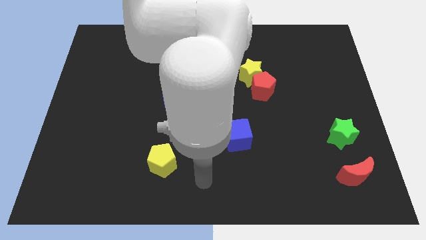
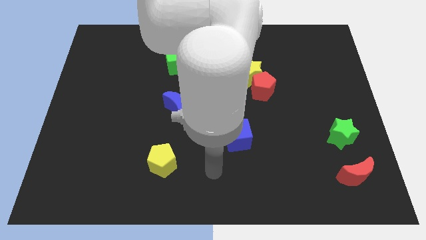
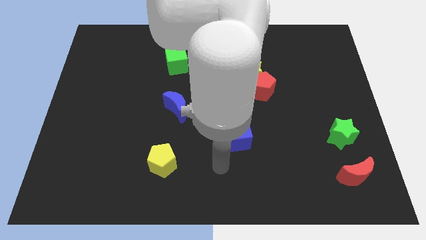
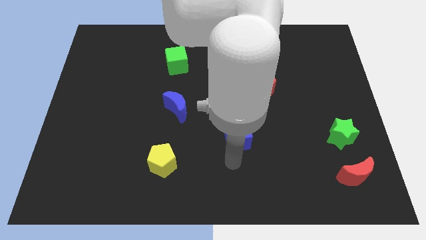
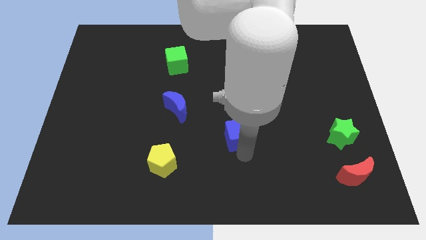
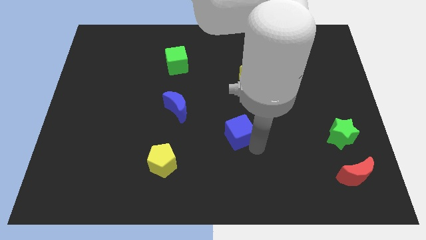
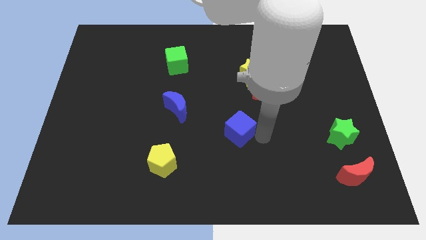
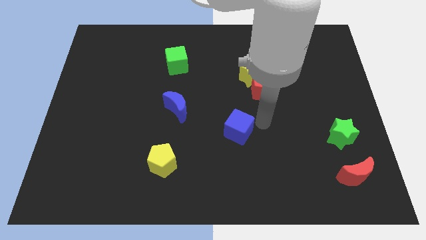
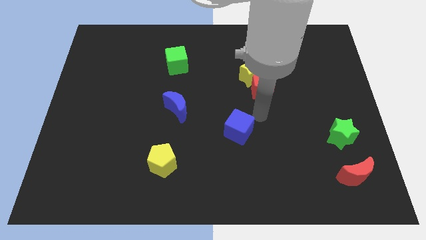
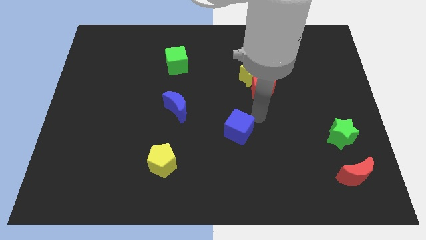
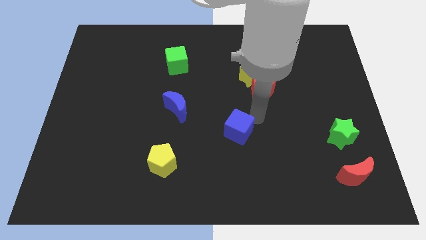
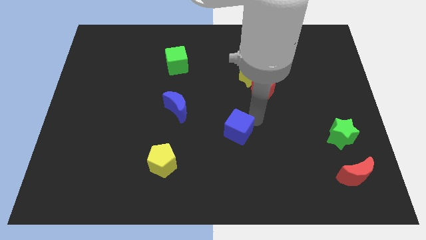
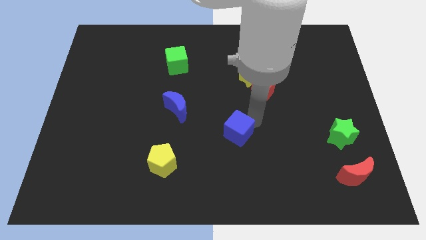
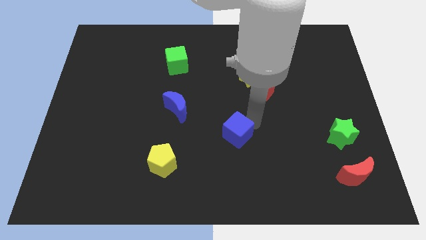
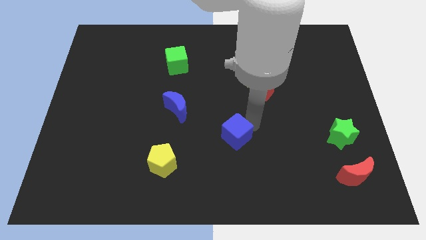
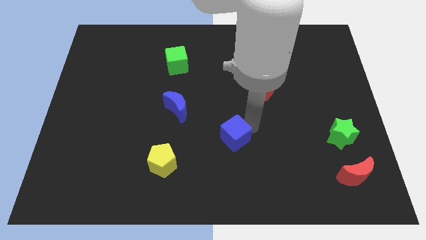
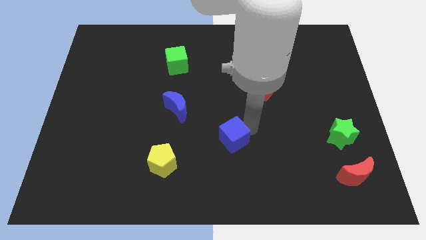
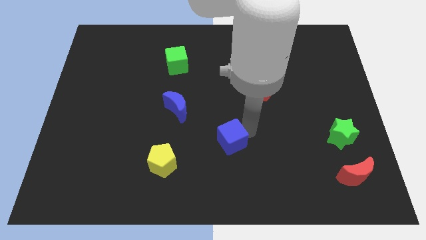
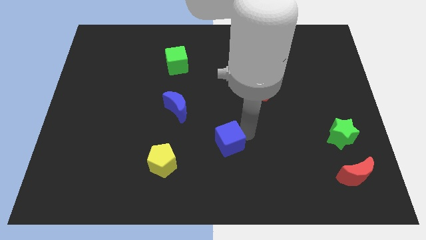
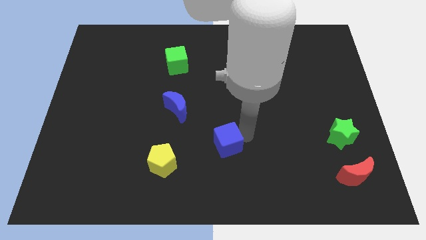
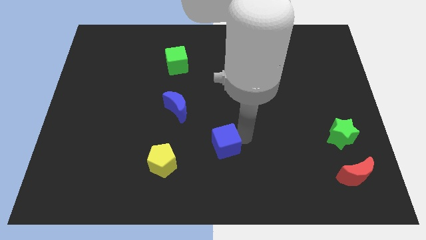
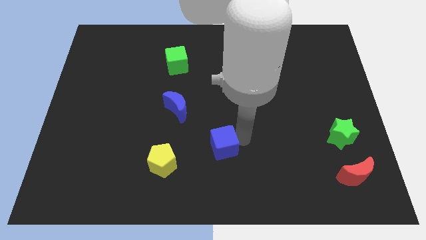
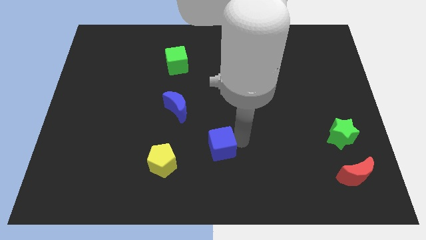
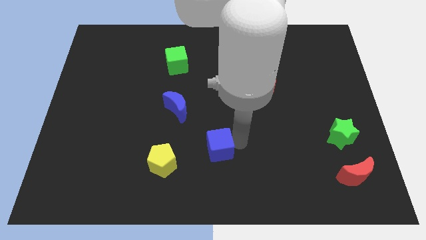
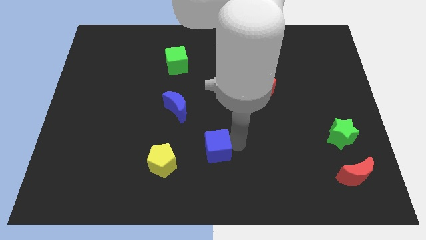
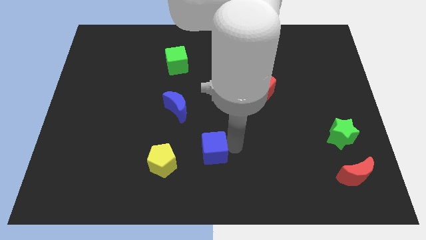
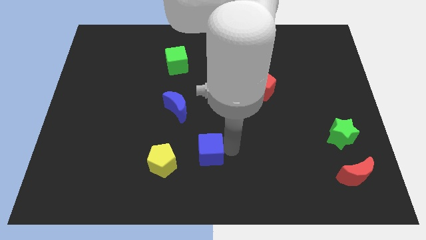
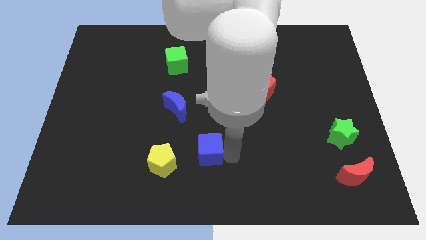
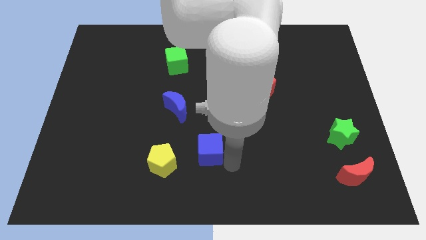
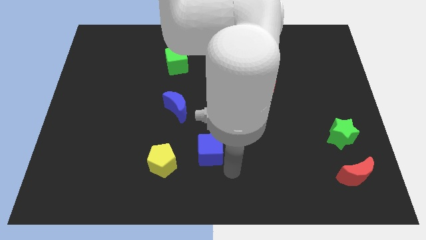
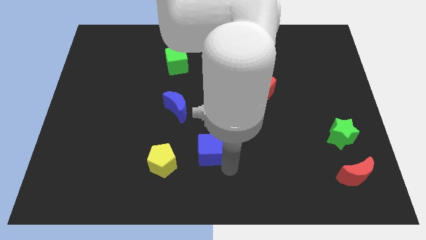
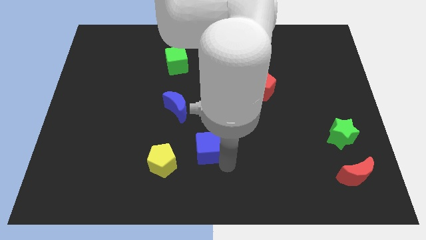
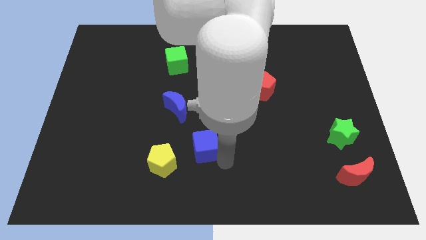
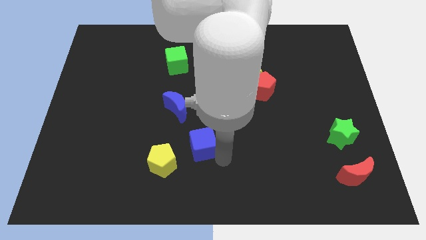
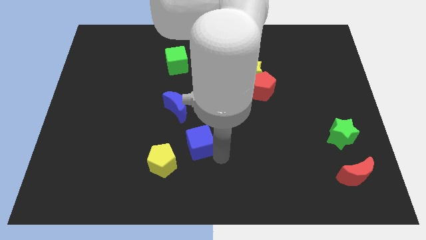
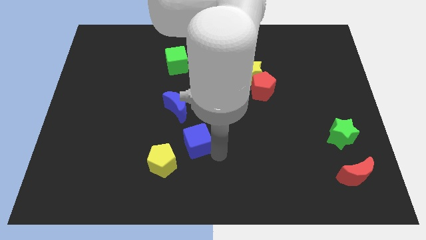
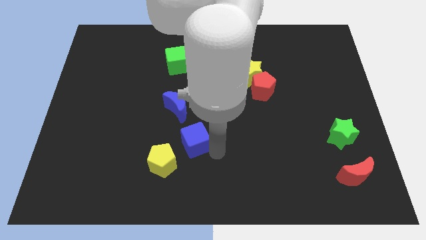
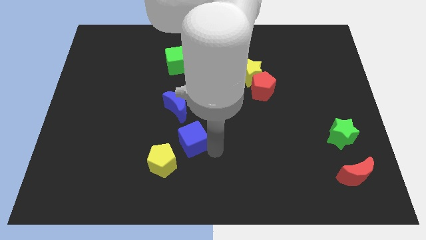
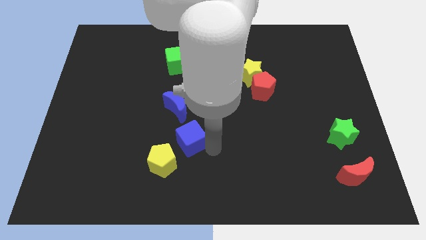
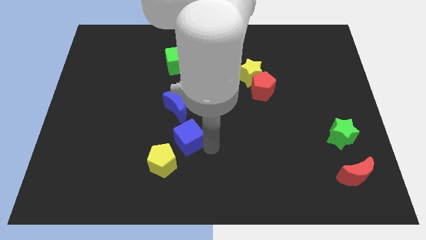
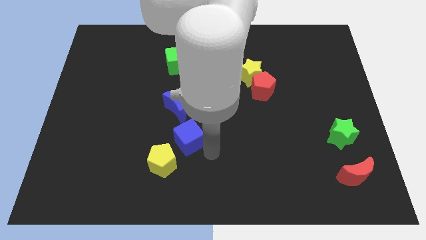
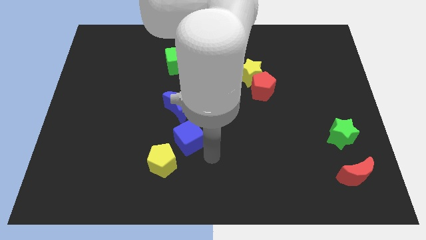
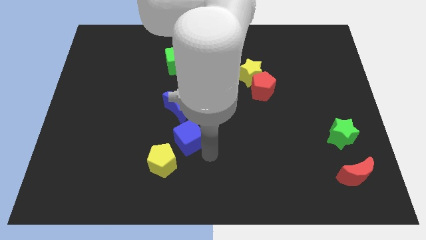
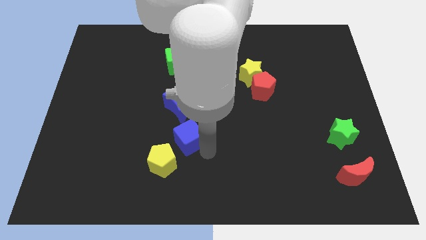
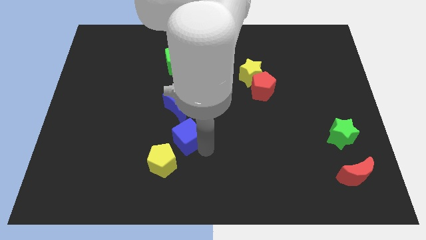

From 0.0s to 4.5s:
put the blue cube above the yellow pentagon

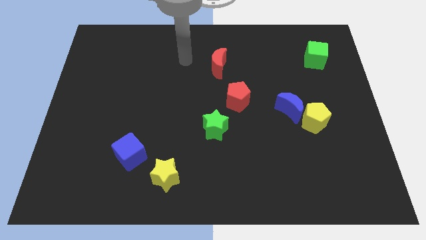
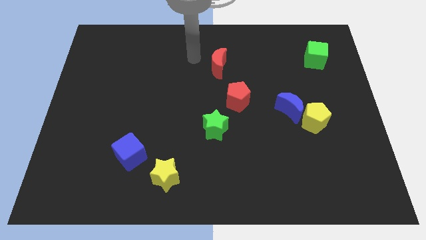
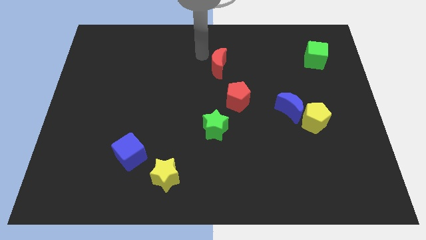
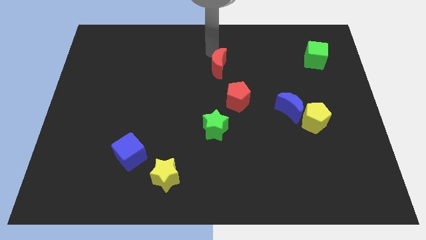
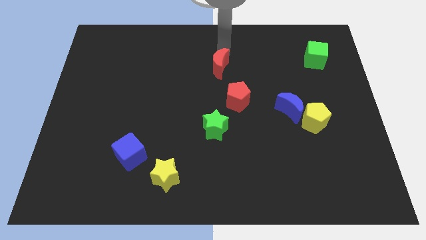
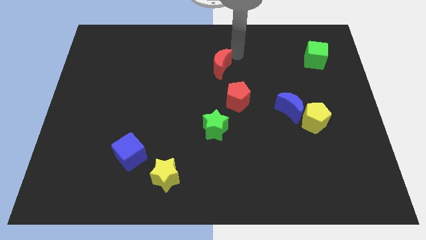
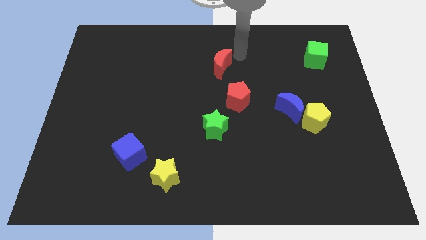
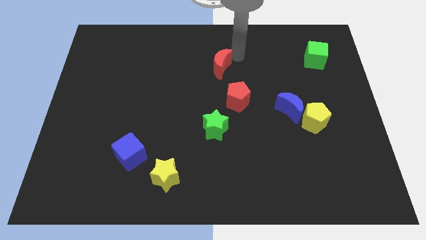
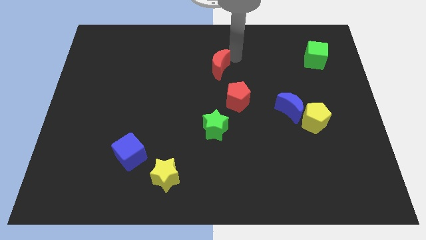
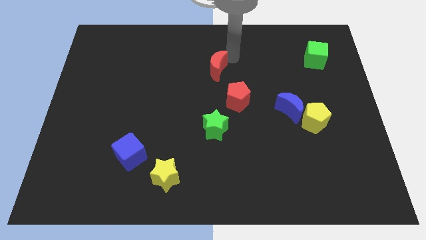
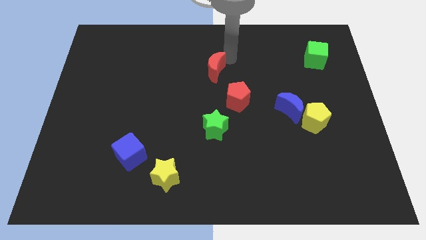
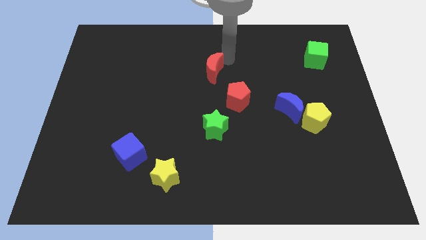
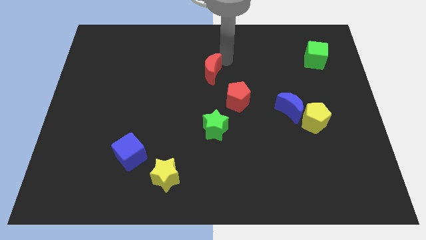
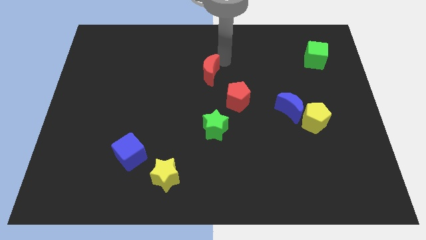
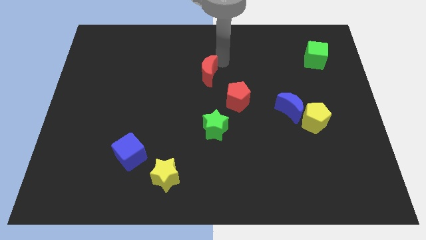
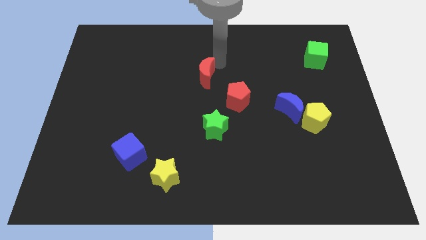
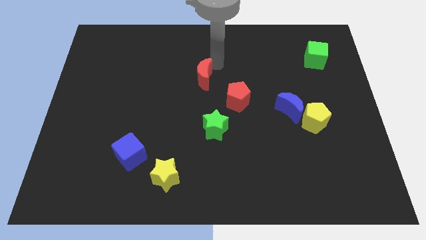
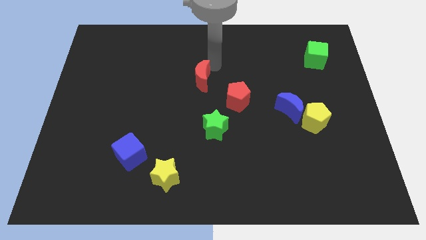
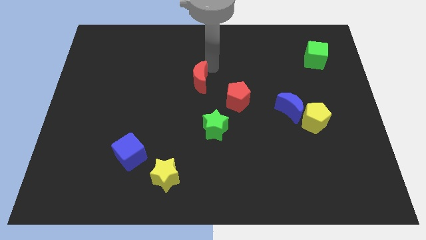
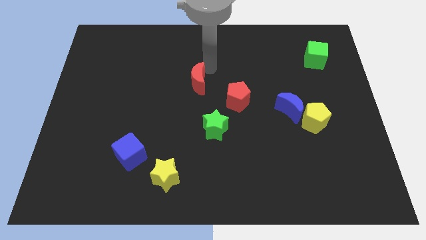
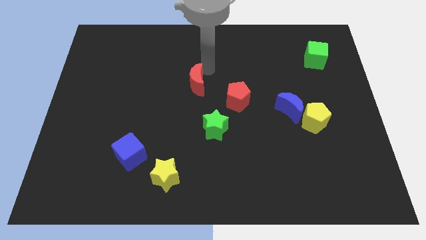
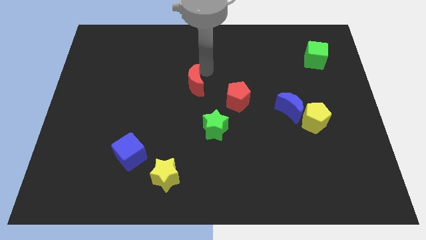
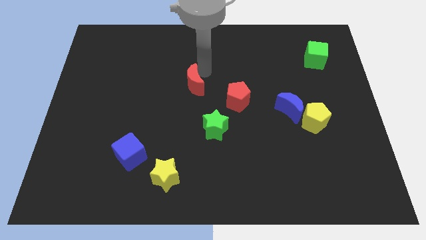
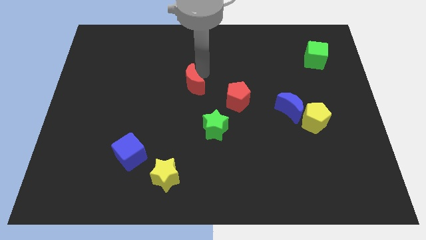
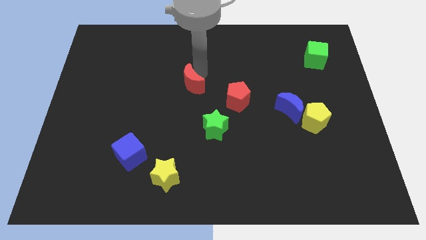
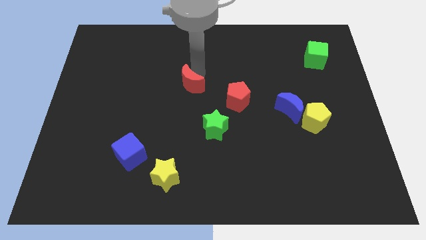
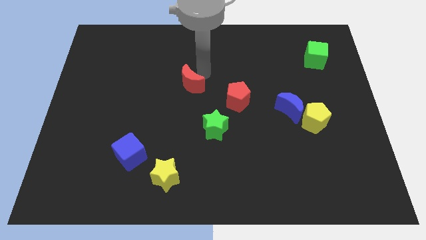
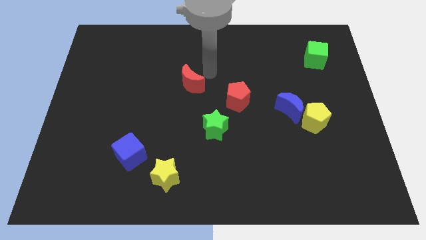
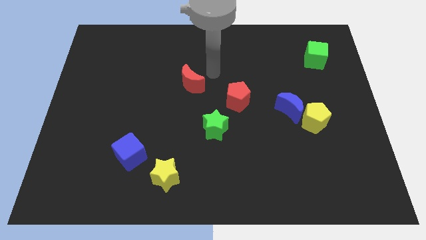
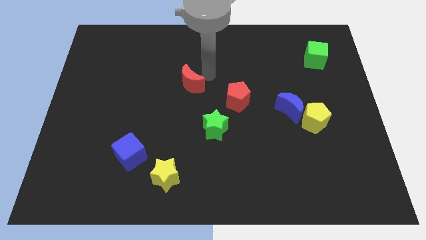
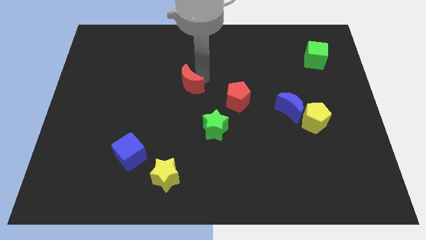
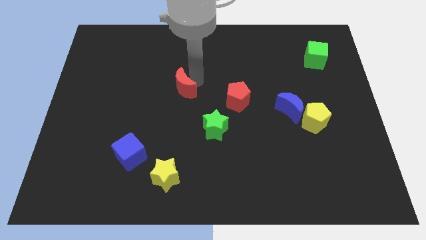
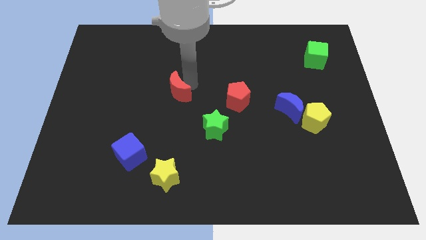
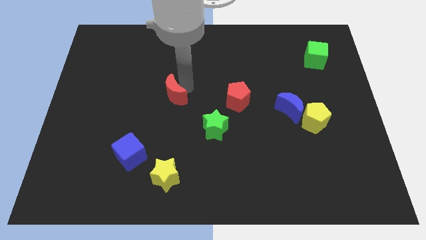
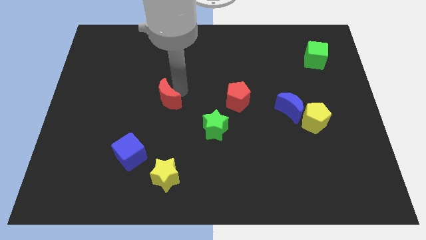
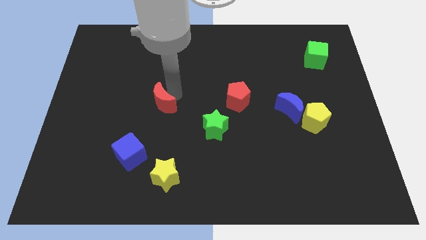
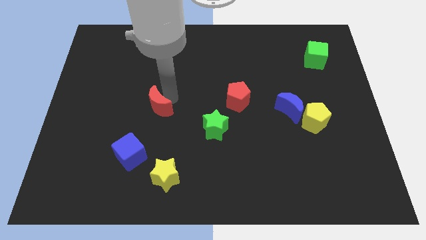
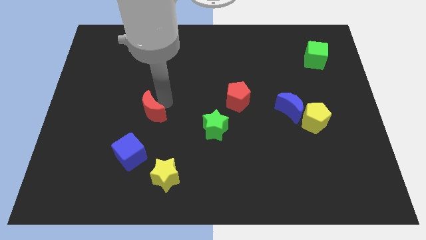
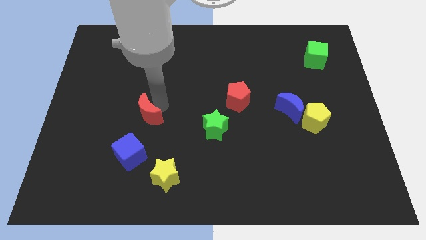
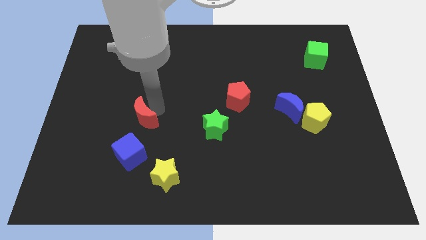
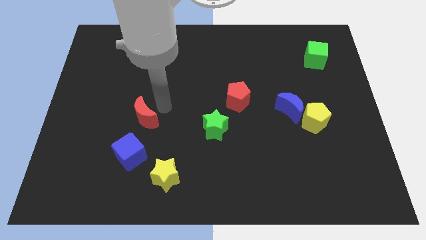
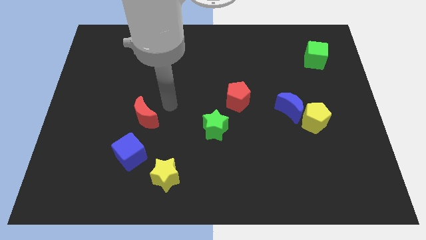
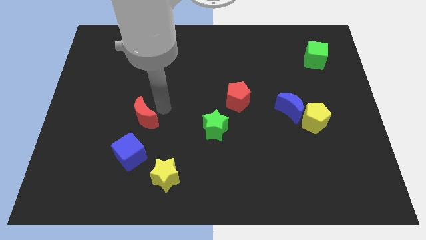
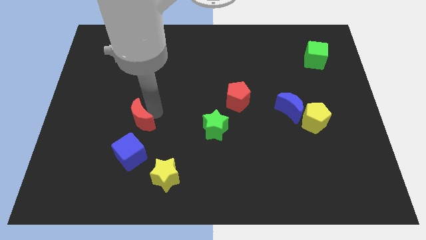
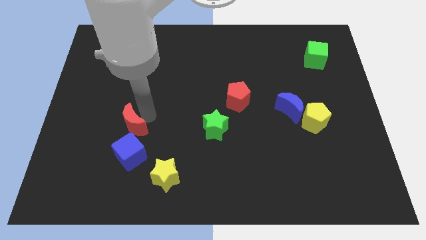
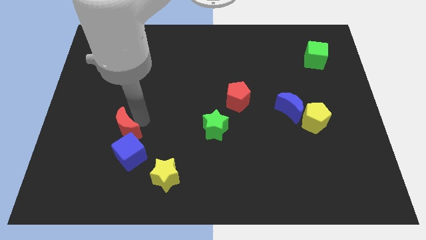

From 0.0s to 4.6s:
slide the red moon to the top left of the blue cube
